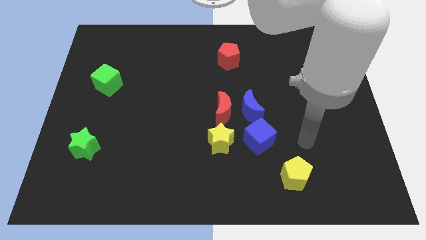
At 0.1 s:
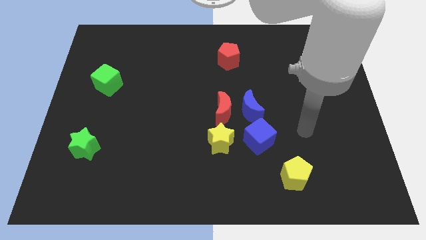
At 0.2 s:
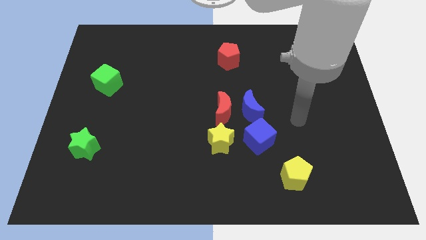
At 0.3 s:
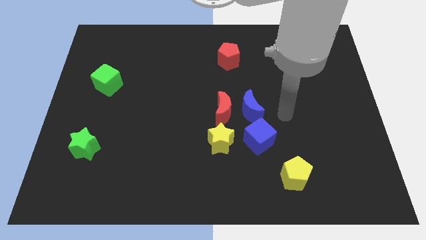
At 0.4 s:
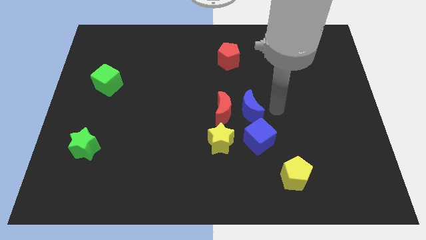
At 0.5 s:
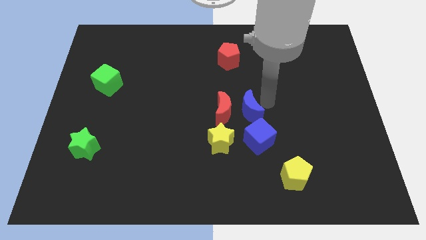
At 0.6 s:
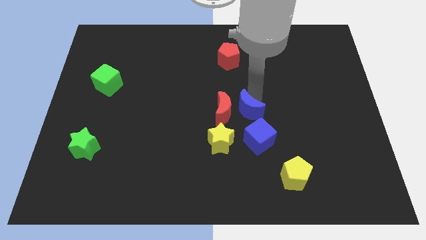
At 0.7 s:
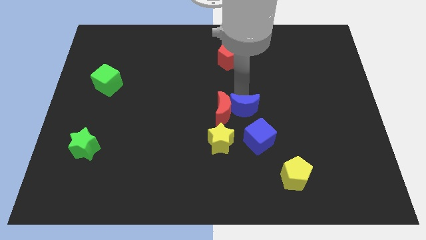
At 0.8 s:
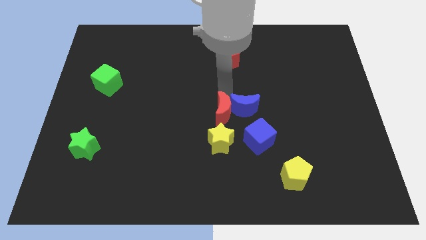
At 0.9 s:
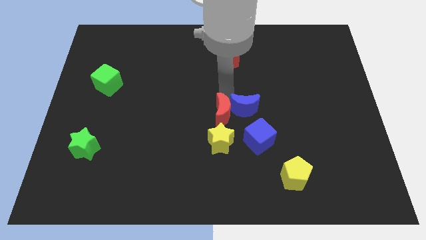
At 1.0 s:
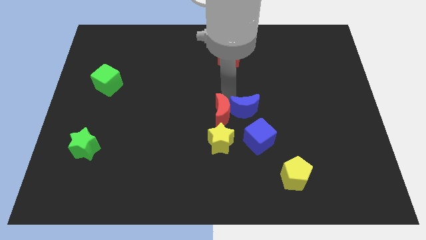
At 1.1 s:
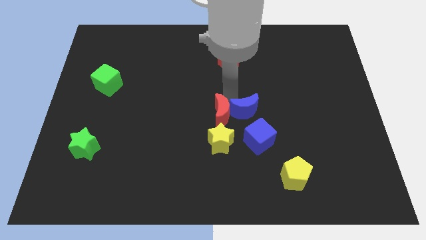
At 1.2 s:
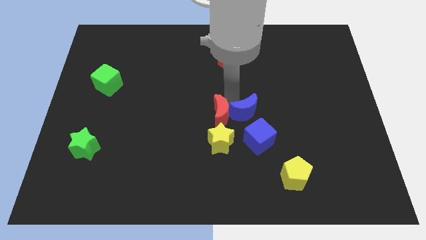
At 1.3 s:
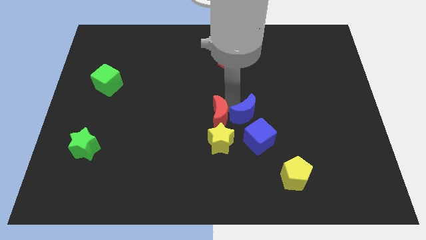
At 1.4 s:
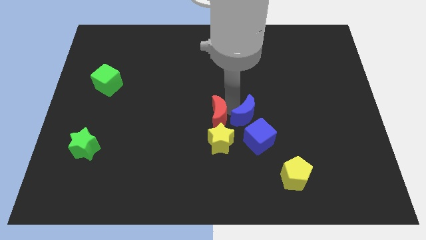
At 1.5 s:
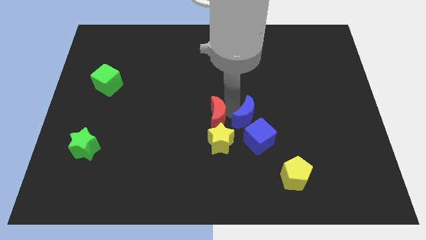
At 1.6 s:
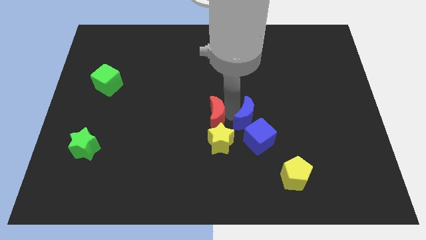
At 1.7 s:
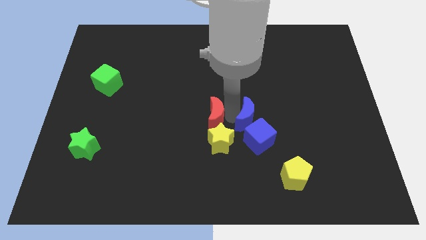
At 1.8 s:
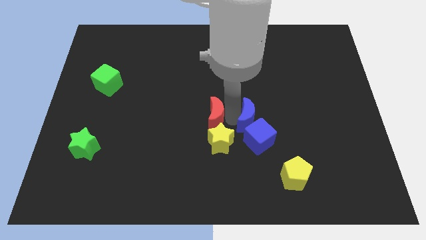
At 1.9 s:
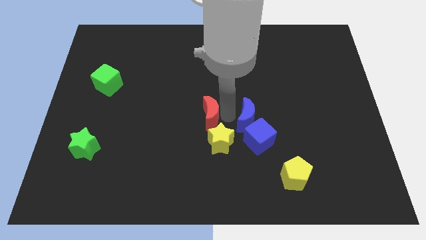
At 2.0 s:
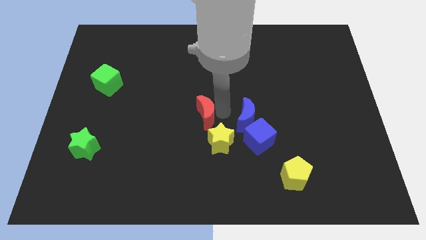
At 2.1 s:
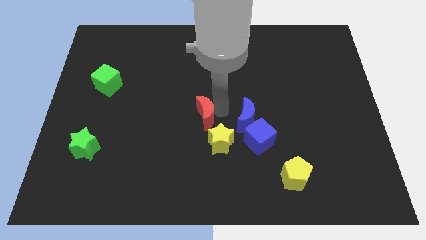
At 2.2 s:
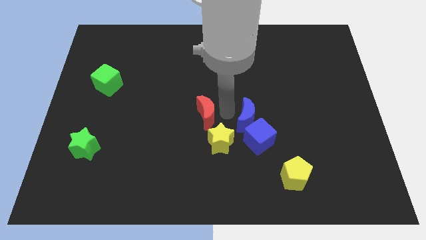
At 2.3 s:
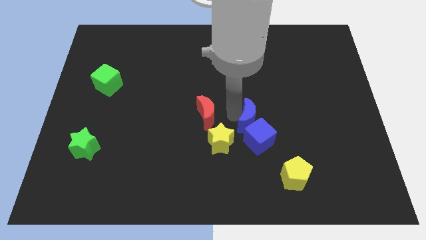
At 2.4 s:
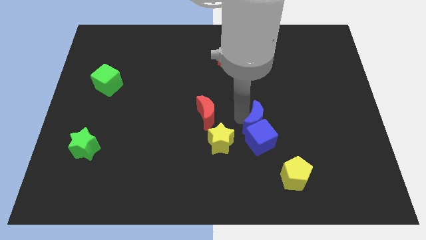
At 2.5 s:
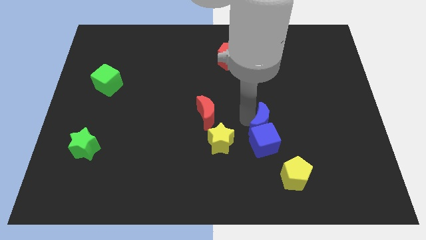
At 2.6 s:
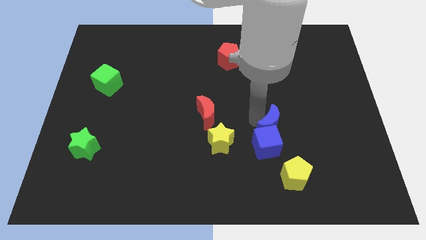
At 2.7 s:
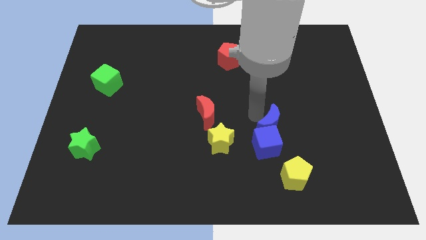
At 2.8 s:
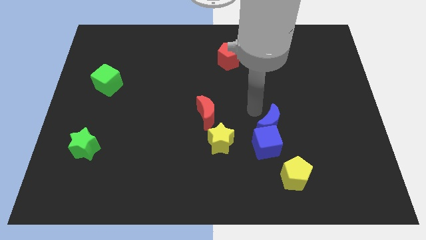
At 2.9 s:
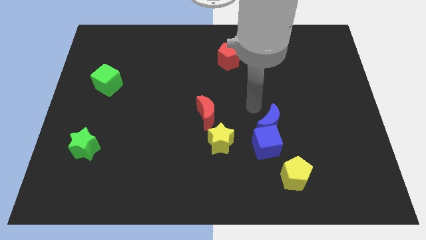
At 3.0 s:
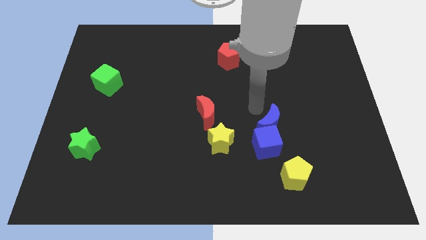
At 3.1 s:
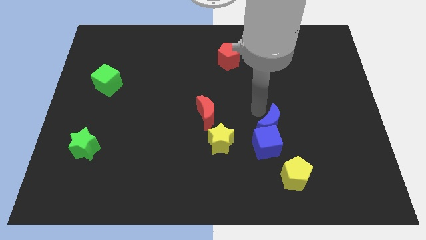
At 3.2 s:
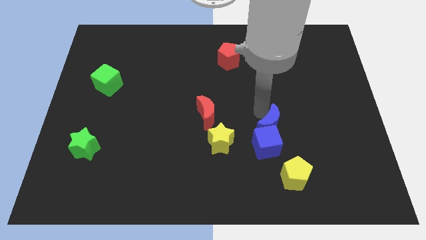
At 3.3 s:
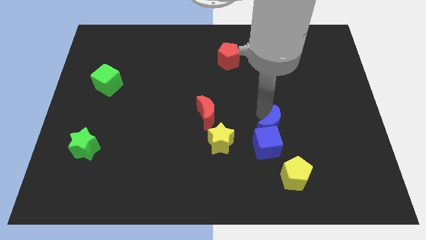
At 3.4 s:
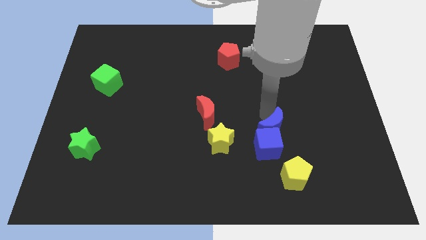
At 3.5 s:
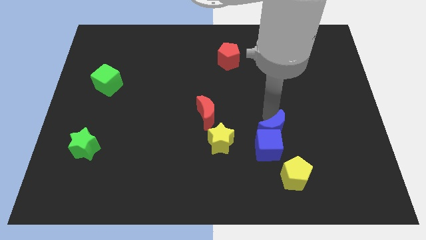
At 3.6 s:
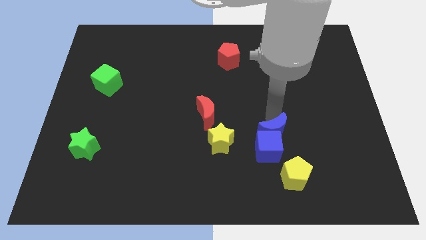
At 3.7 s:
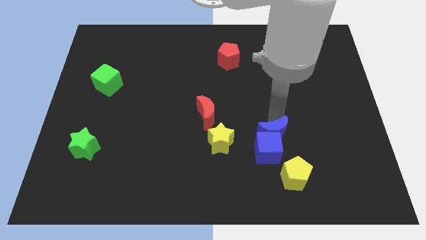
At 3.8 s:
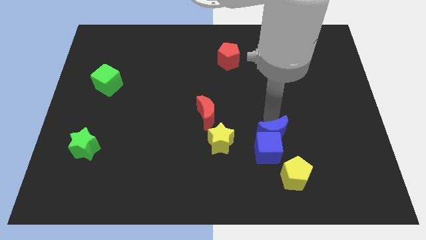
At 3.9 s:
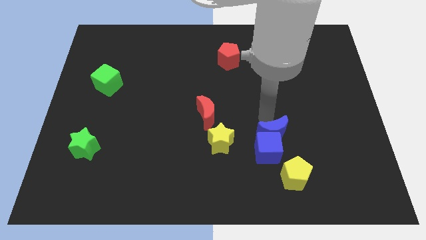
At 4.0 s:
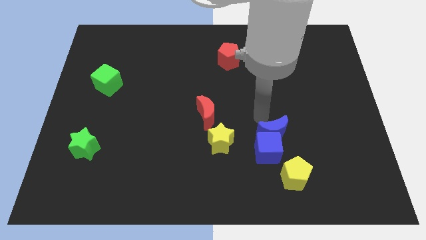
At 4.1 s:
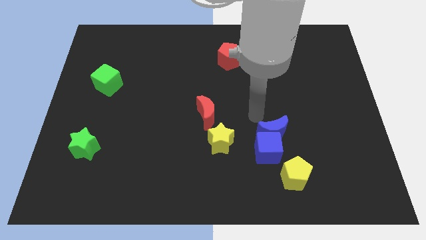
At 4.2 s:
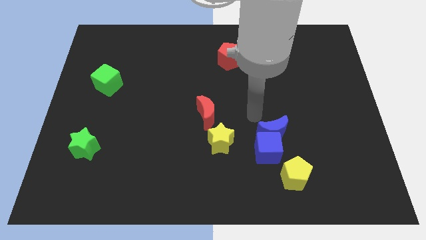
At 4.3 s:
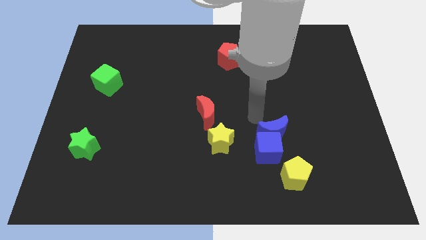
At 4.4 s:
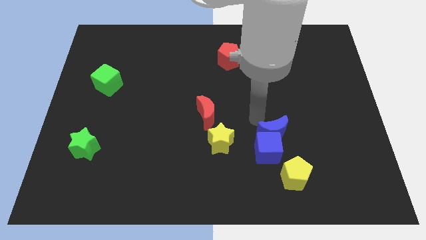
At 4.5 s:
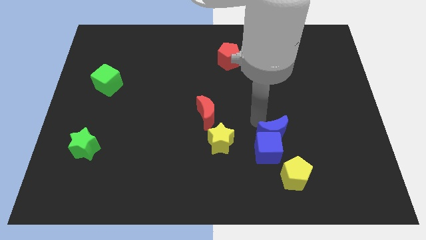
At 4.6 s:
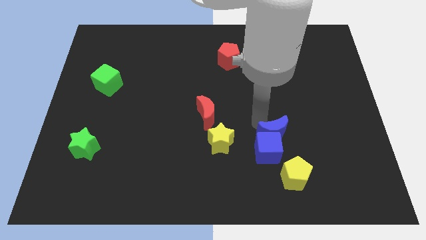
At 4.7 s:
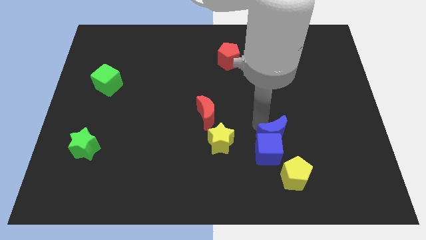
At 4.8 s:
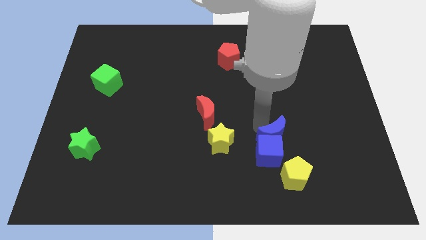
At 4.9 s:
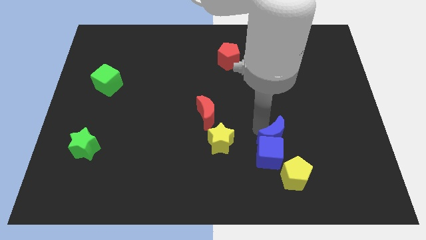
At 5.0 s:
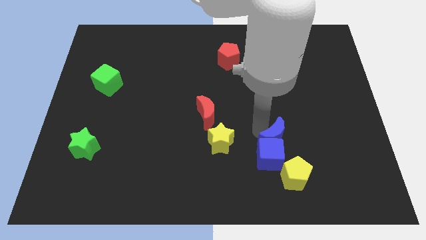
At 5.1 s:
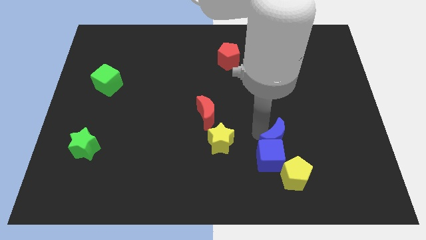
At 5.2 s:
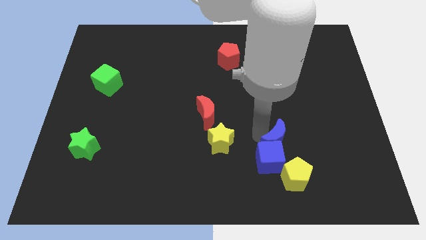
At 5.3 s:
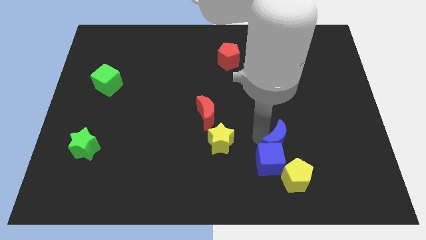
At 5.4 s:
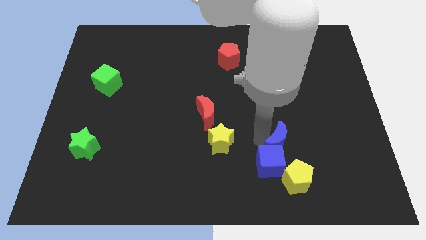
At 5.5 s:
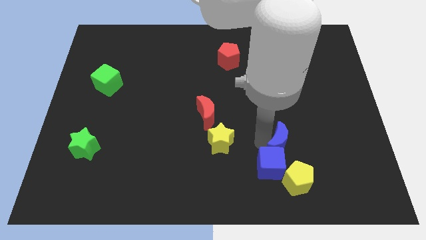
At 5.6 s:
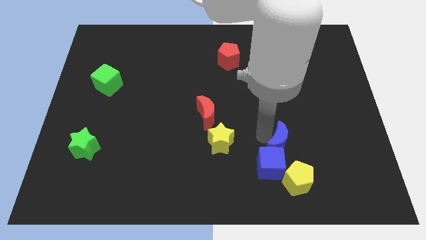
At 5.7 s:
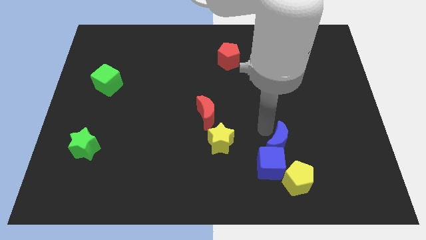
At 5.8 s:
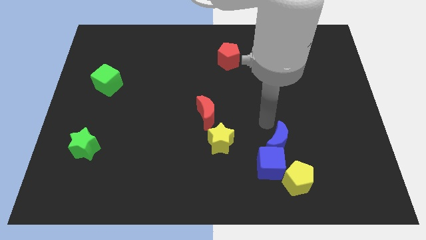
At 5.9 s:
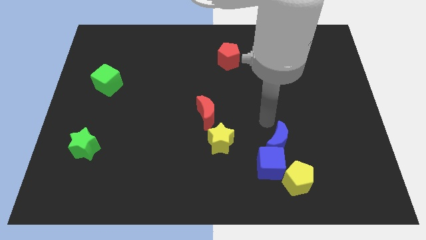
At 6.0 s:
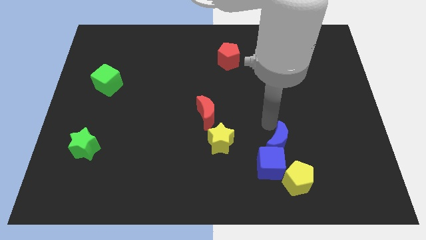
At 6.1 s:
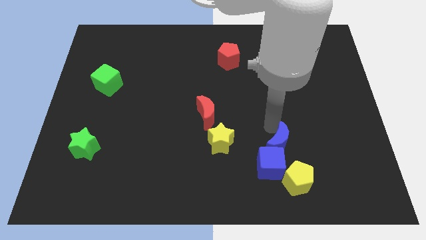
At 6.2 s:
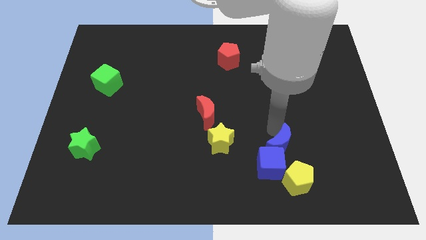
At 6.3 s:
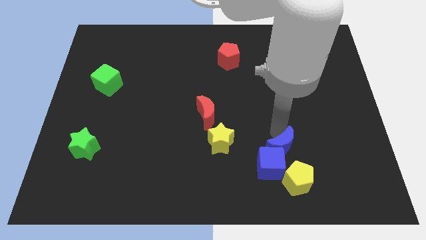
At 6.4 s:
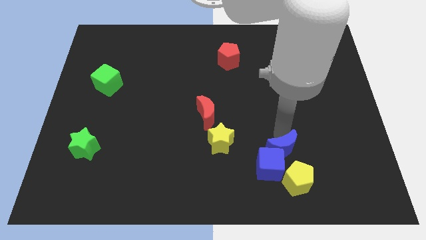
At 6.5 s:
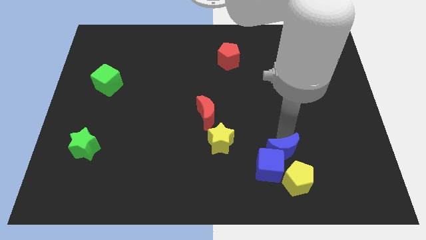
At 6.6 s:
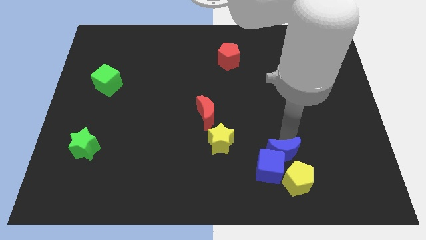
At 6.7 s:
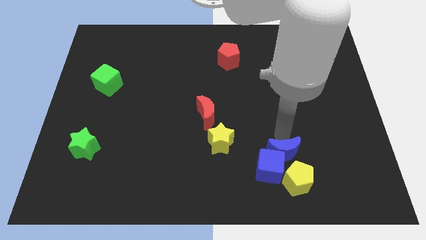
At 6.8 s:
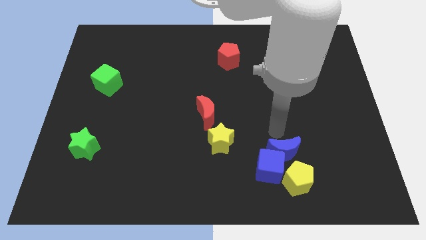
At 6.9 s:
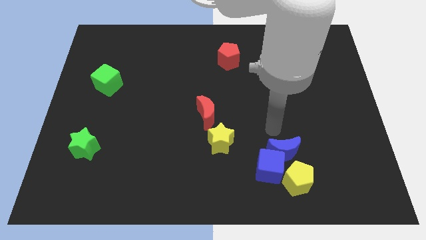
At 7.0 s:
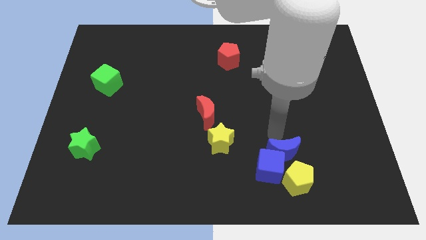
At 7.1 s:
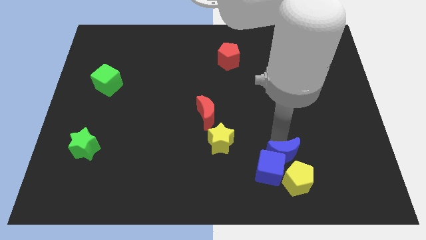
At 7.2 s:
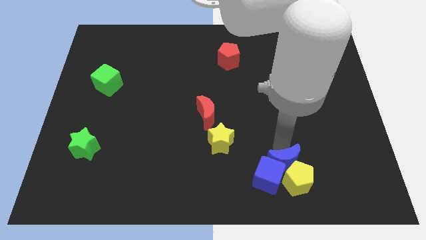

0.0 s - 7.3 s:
put the blue moon to the yellow pentagon
